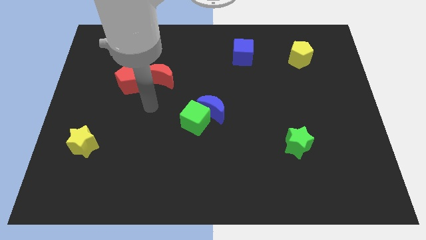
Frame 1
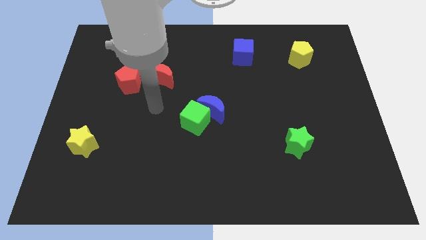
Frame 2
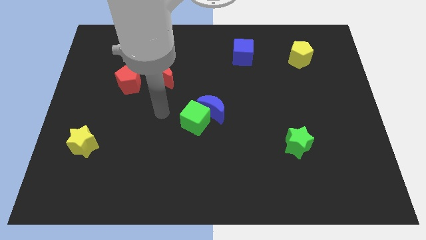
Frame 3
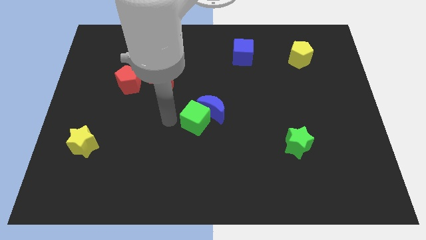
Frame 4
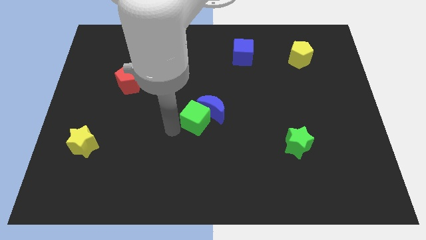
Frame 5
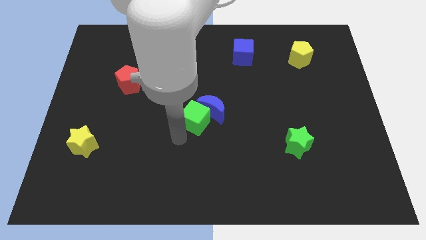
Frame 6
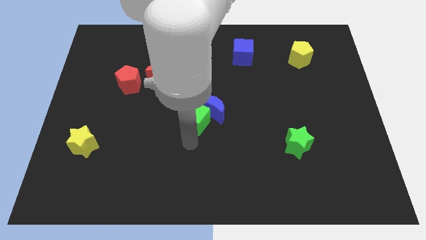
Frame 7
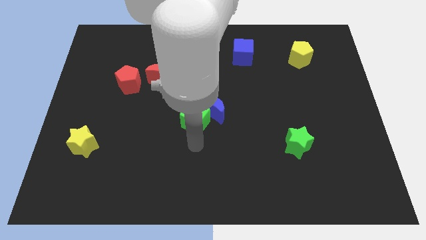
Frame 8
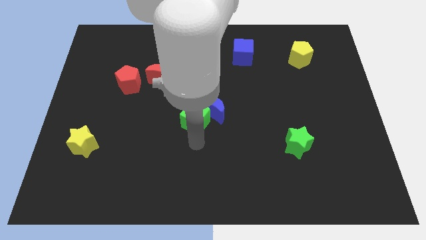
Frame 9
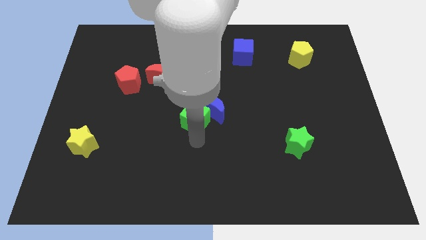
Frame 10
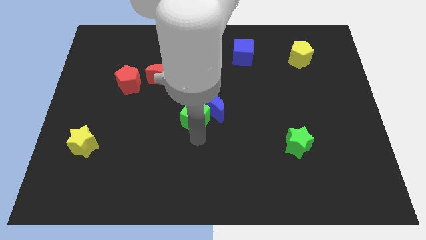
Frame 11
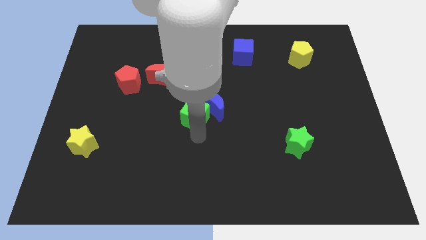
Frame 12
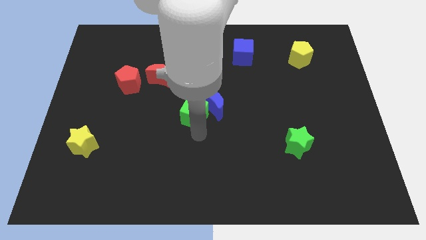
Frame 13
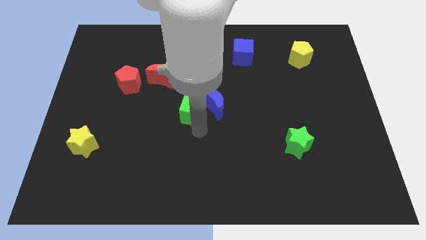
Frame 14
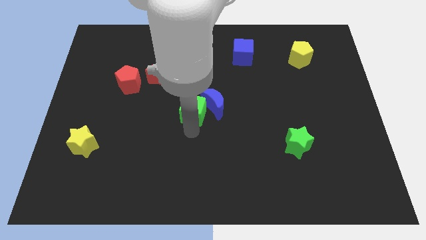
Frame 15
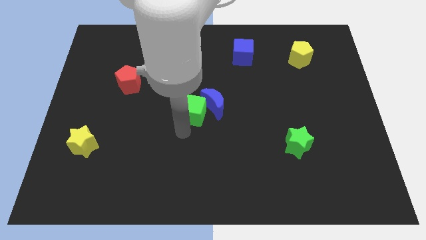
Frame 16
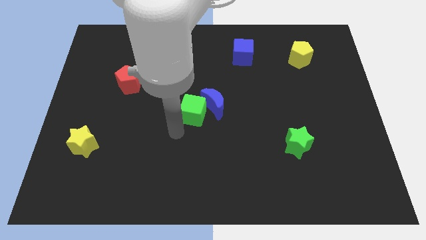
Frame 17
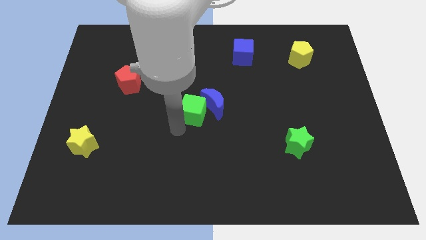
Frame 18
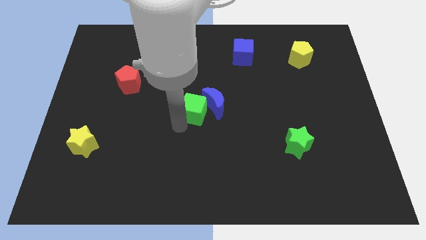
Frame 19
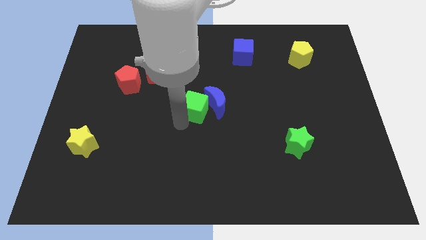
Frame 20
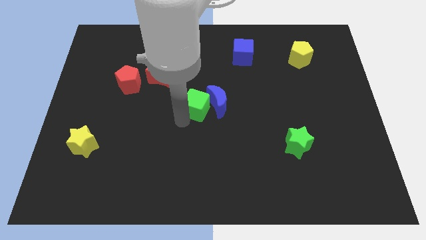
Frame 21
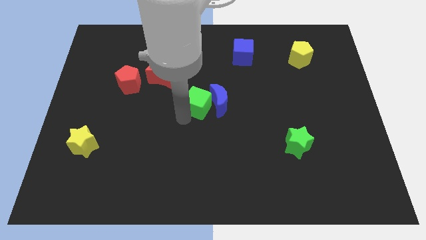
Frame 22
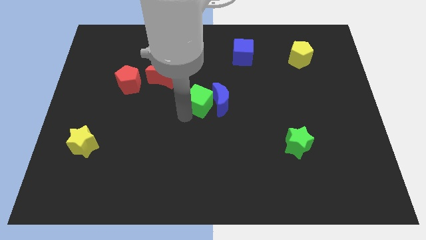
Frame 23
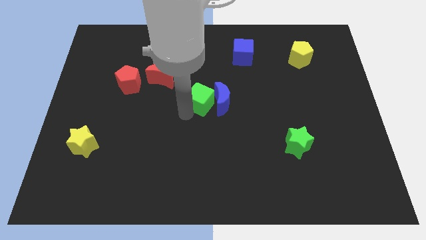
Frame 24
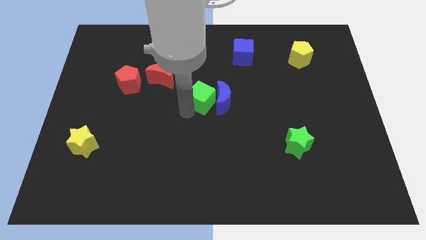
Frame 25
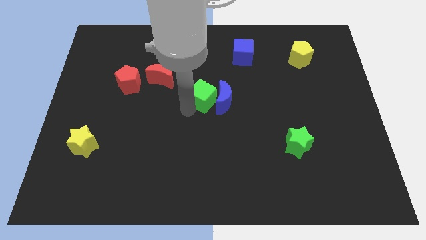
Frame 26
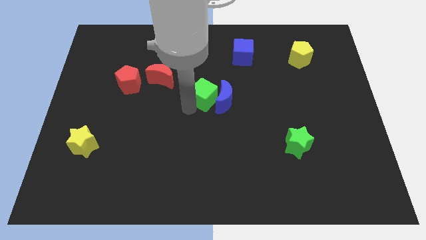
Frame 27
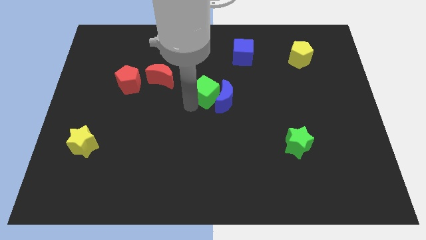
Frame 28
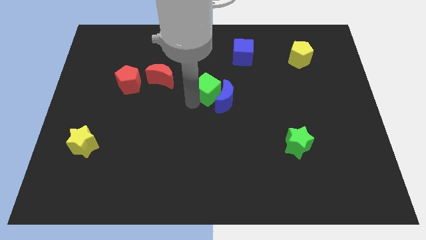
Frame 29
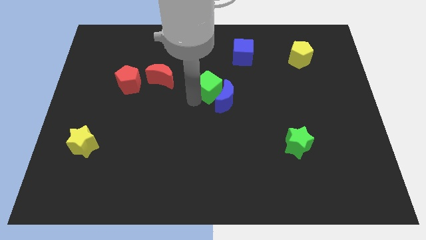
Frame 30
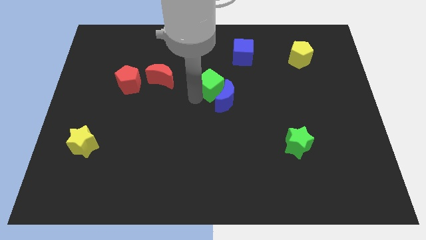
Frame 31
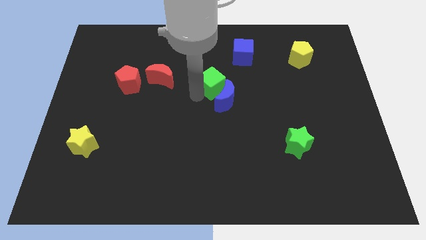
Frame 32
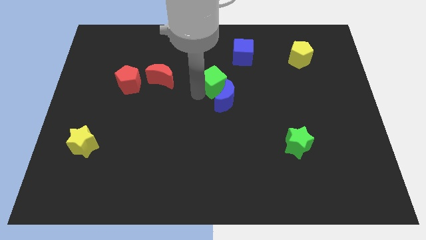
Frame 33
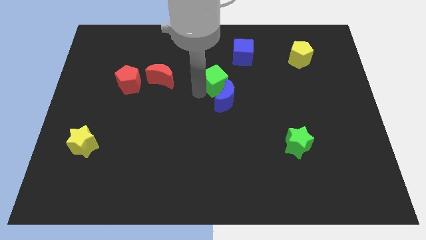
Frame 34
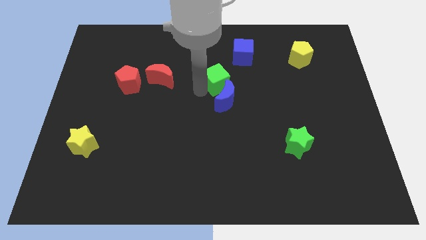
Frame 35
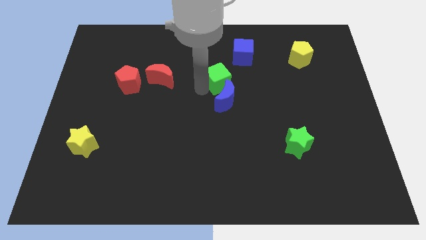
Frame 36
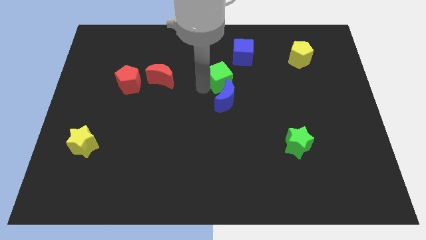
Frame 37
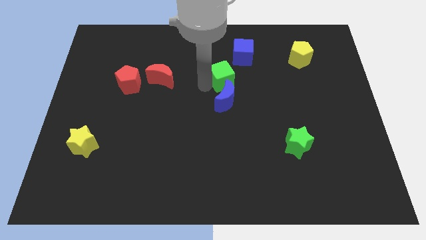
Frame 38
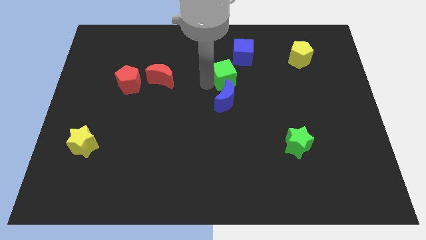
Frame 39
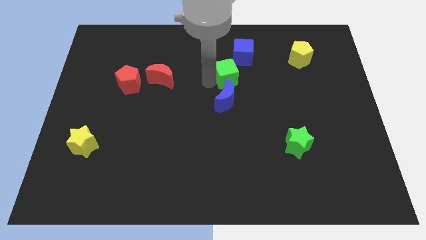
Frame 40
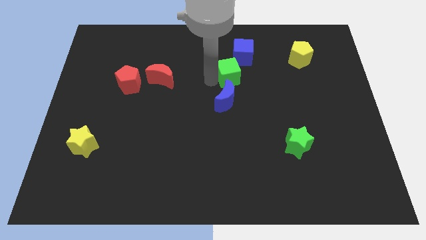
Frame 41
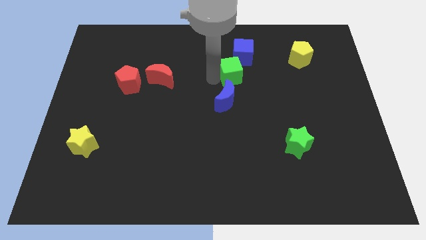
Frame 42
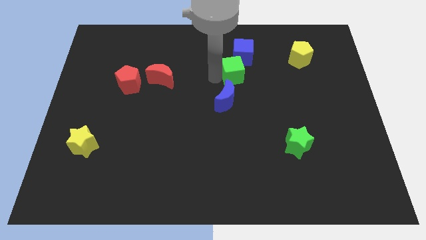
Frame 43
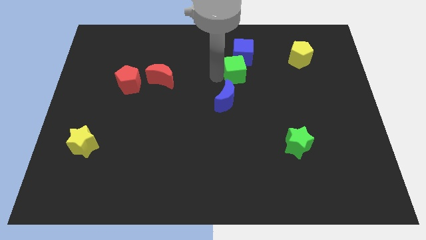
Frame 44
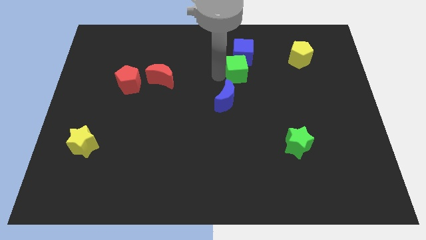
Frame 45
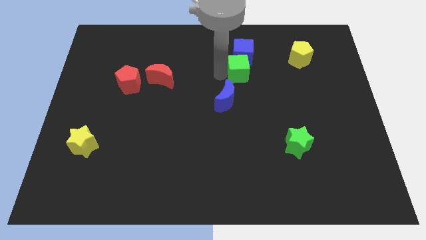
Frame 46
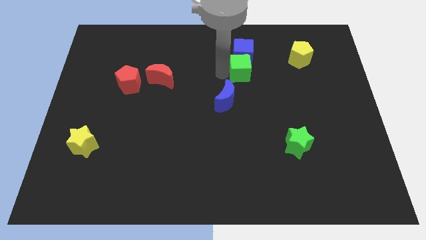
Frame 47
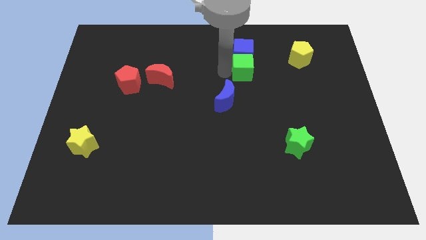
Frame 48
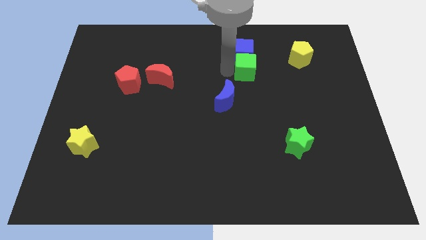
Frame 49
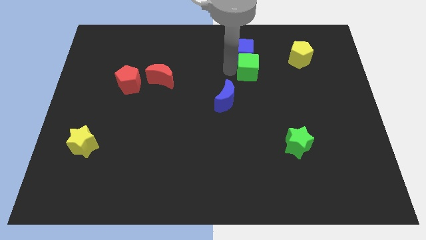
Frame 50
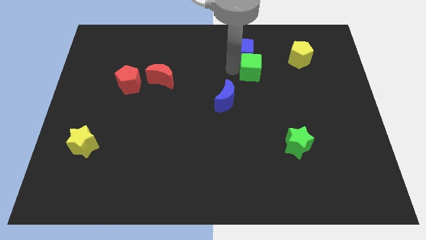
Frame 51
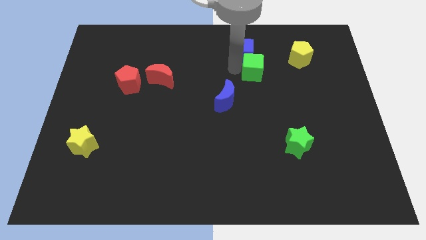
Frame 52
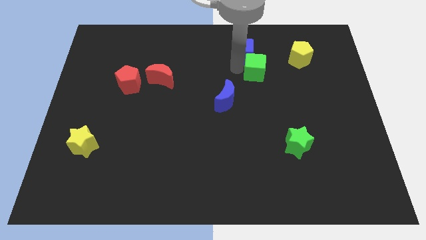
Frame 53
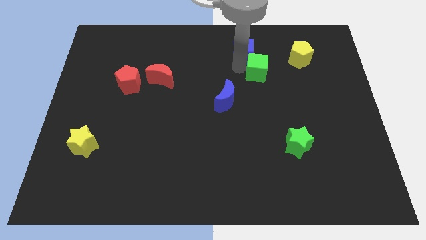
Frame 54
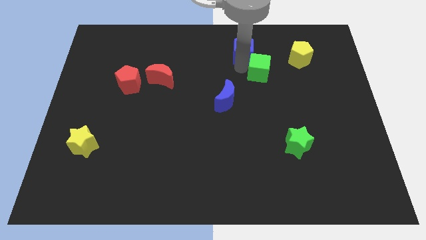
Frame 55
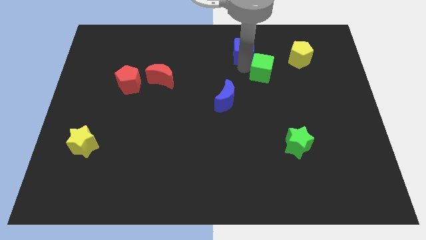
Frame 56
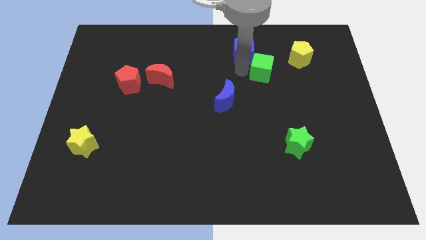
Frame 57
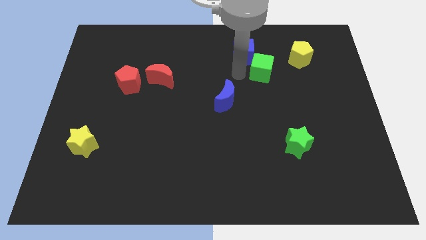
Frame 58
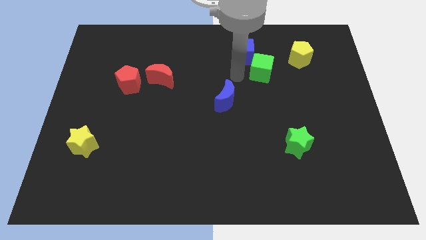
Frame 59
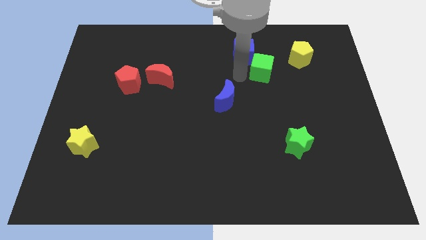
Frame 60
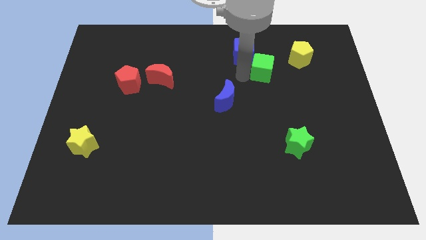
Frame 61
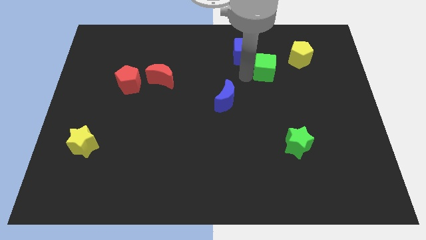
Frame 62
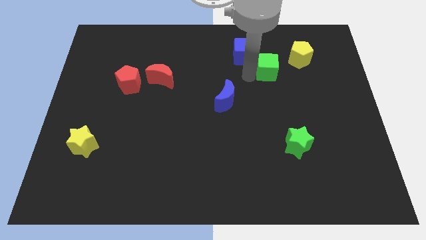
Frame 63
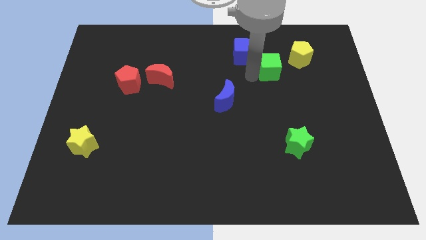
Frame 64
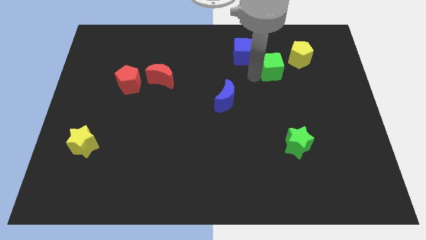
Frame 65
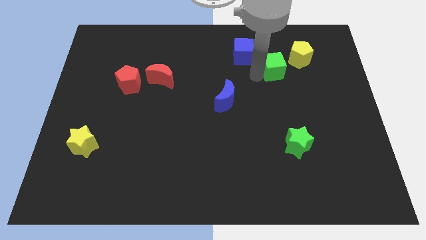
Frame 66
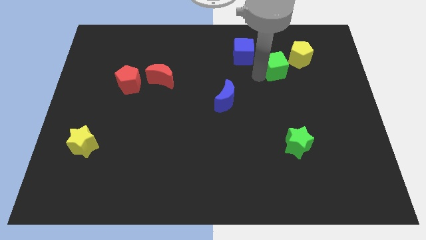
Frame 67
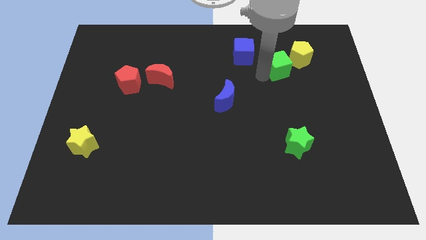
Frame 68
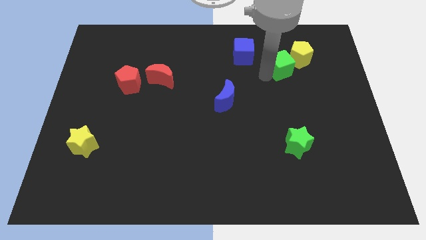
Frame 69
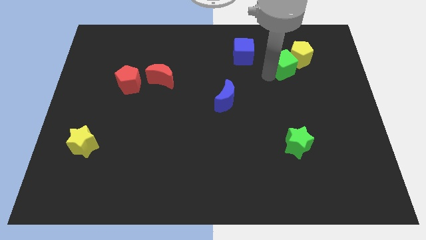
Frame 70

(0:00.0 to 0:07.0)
slide the green cube next to the yellow pentagon

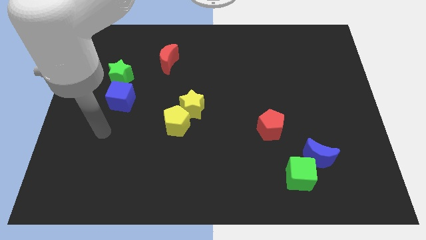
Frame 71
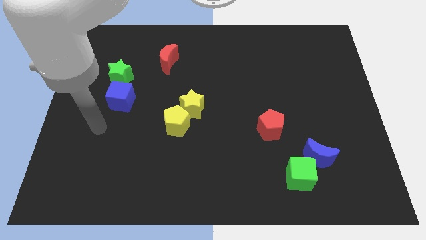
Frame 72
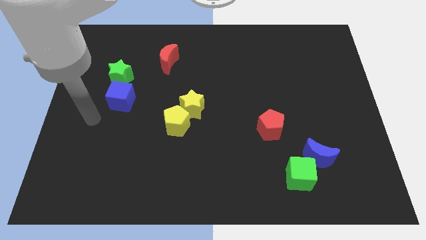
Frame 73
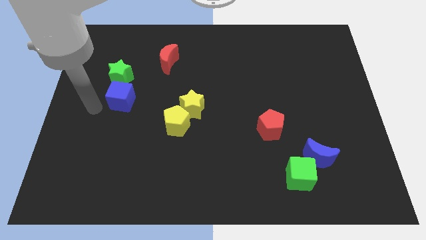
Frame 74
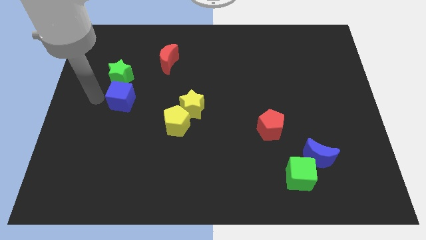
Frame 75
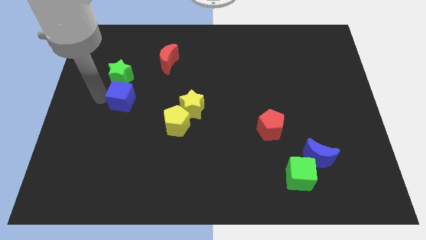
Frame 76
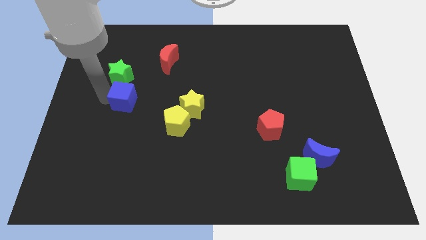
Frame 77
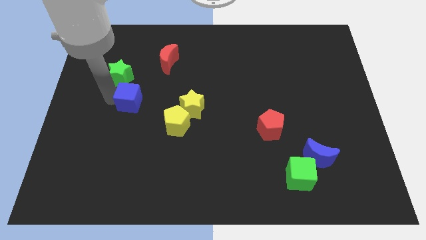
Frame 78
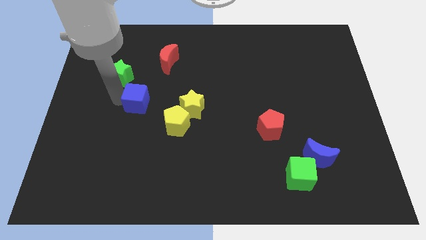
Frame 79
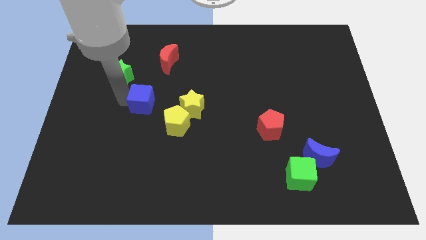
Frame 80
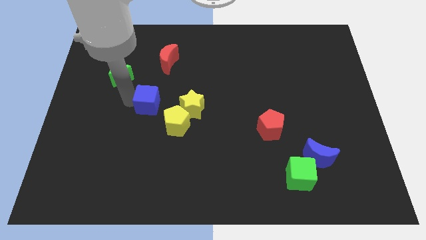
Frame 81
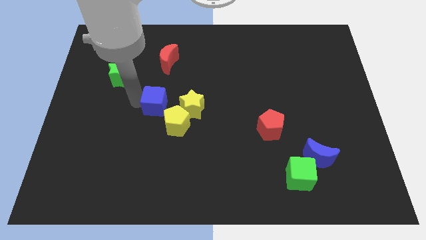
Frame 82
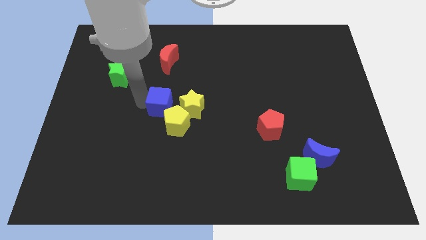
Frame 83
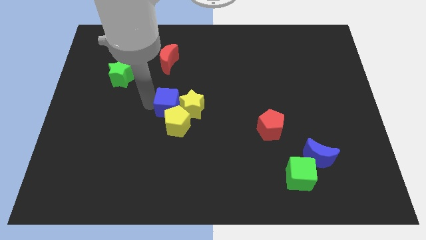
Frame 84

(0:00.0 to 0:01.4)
slide the blue cube to the yellow star
